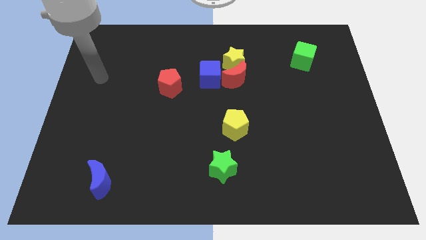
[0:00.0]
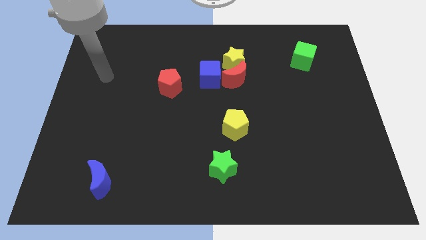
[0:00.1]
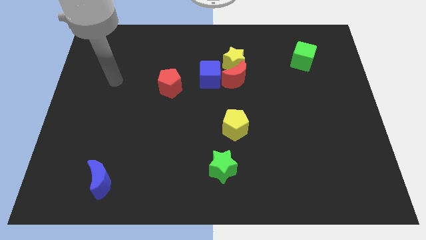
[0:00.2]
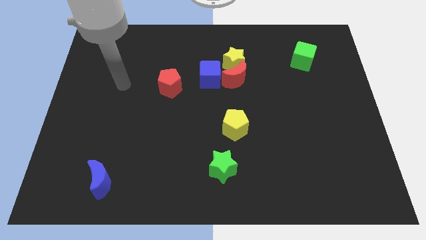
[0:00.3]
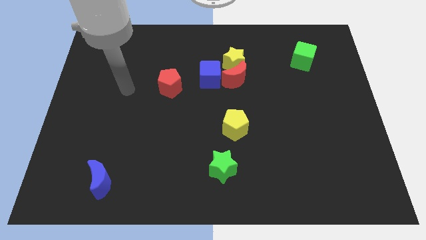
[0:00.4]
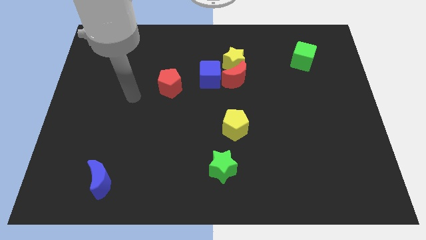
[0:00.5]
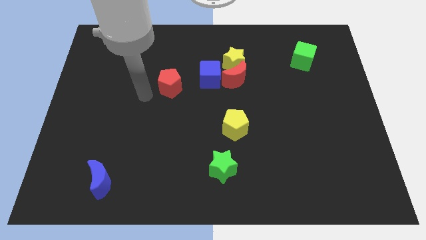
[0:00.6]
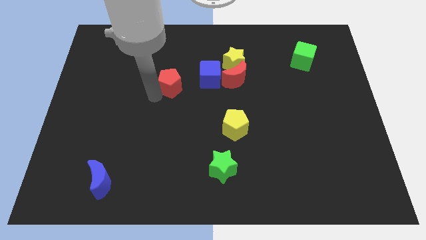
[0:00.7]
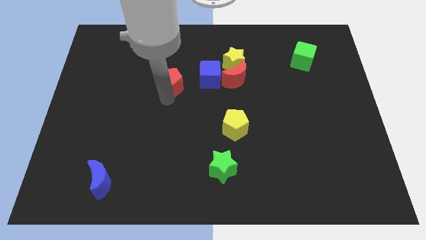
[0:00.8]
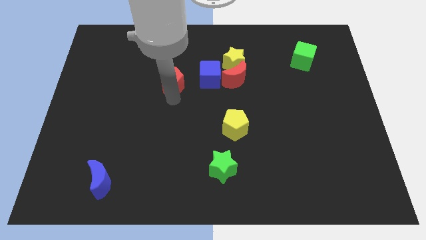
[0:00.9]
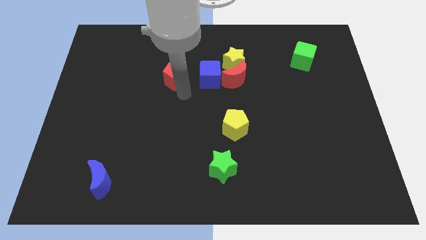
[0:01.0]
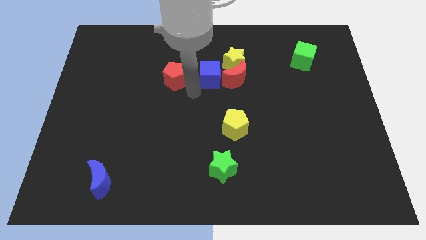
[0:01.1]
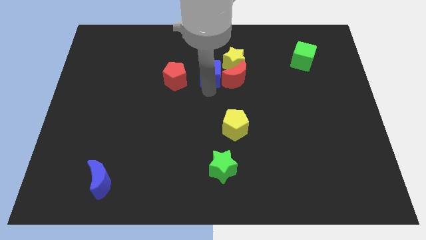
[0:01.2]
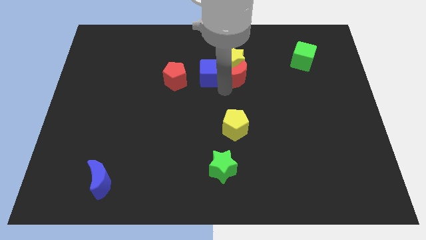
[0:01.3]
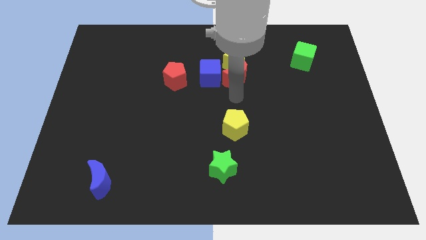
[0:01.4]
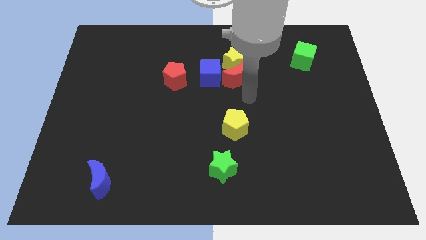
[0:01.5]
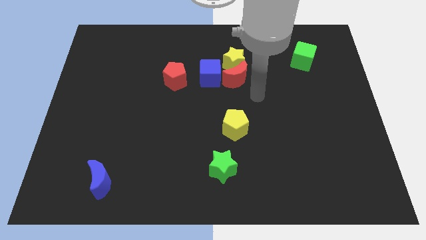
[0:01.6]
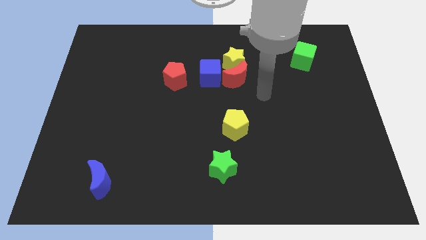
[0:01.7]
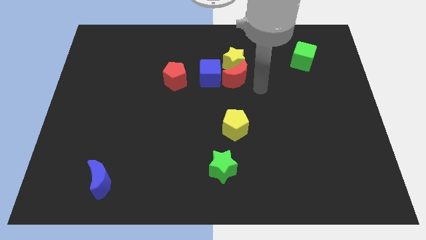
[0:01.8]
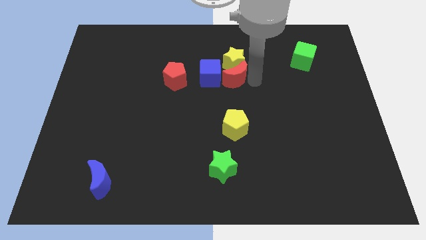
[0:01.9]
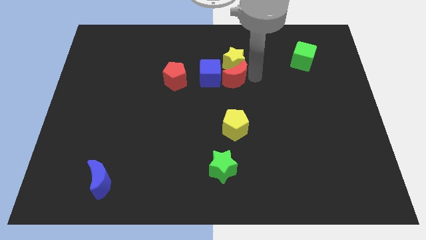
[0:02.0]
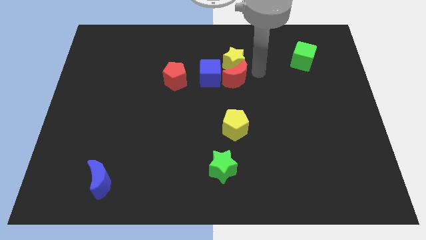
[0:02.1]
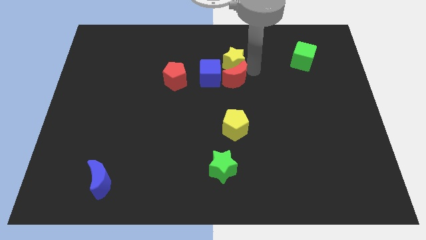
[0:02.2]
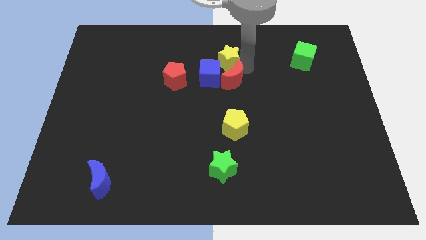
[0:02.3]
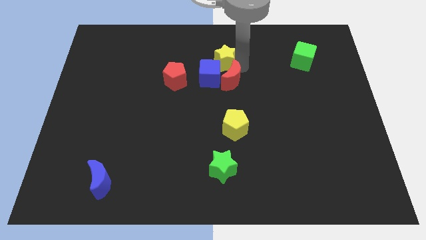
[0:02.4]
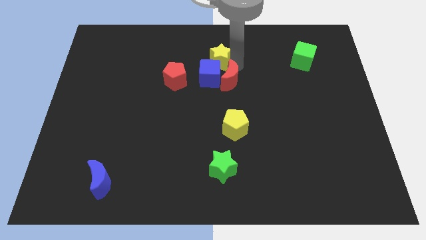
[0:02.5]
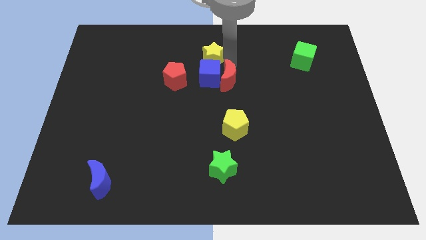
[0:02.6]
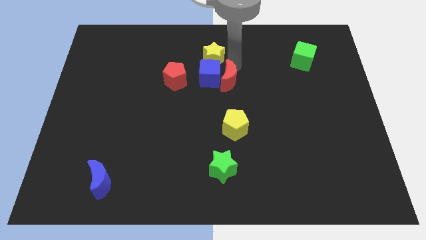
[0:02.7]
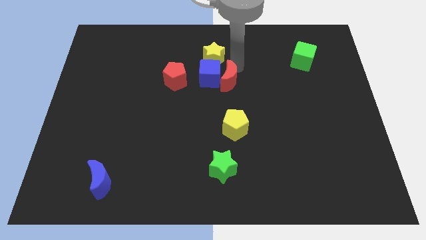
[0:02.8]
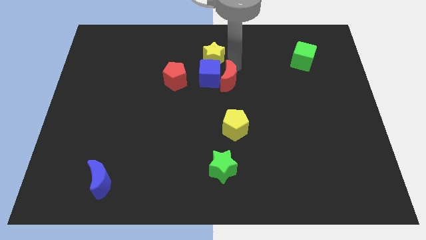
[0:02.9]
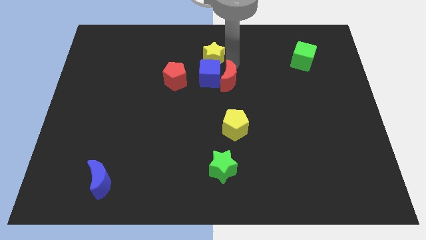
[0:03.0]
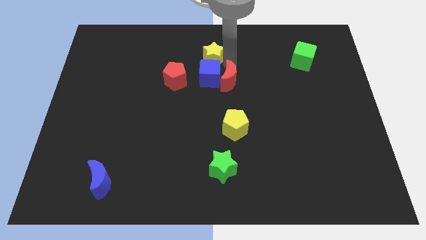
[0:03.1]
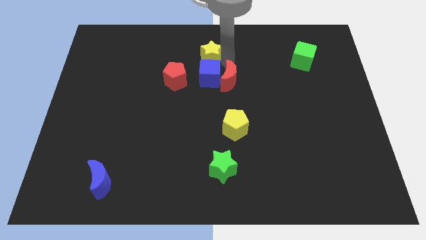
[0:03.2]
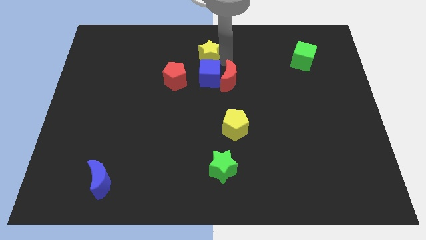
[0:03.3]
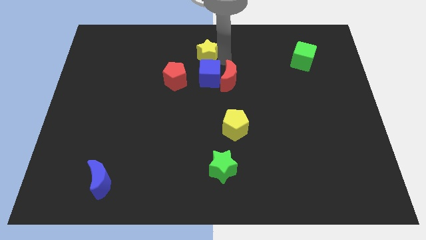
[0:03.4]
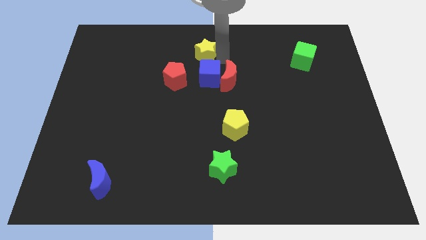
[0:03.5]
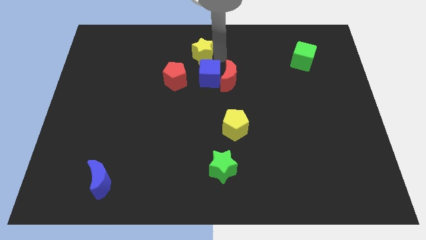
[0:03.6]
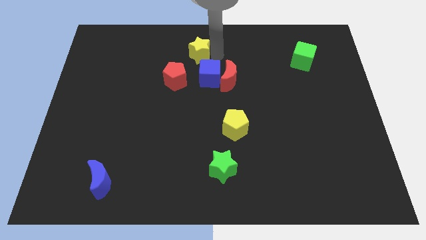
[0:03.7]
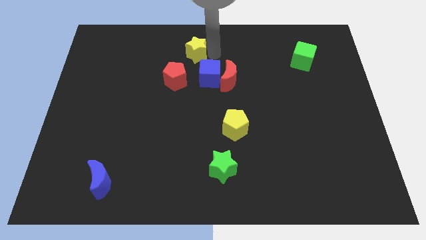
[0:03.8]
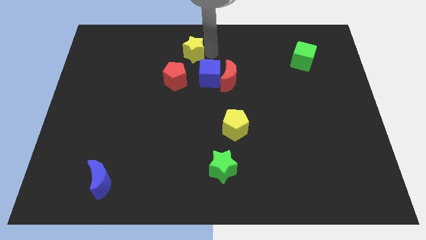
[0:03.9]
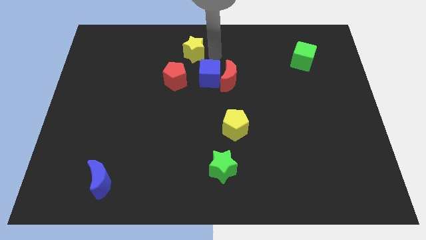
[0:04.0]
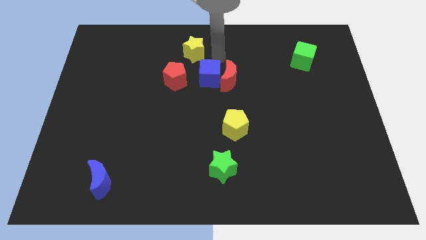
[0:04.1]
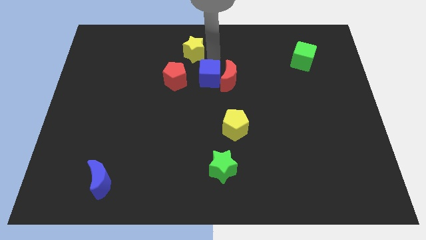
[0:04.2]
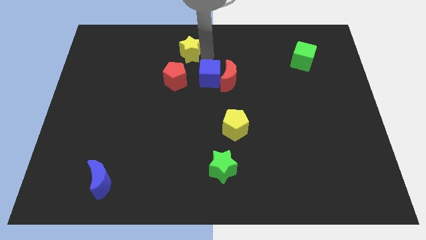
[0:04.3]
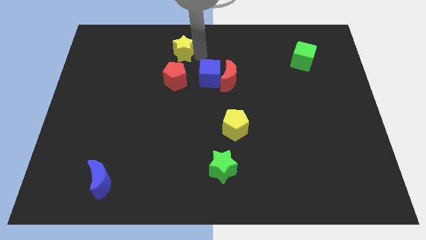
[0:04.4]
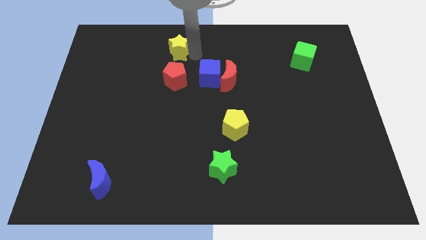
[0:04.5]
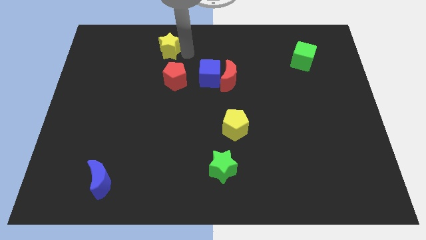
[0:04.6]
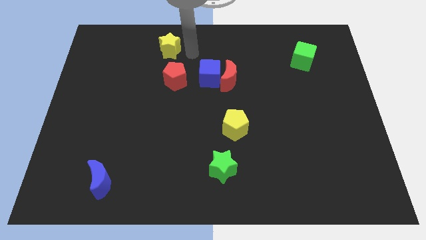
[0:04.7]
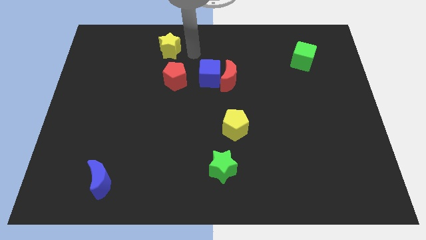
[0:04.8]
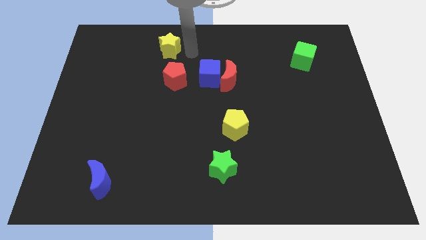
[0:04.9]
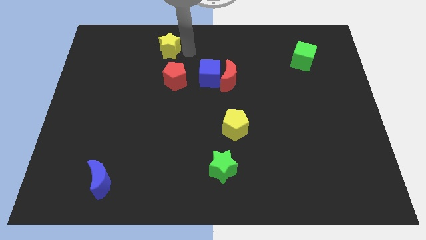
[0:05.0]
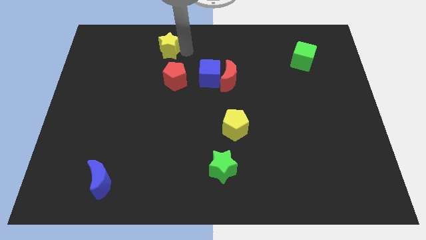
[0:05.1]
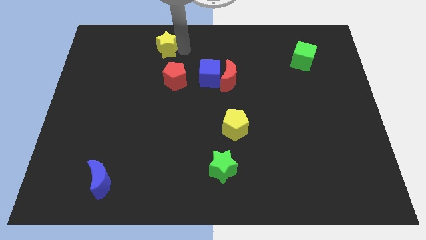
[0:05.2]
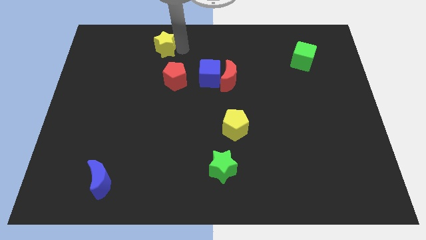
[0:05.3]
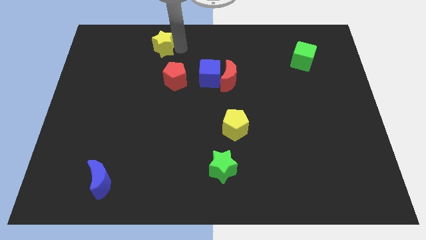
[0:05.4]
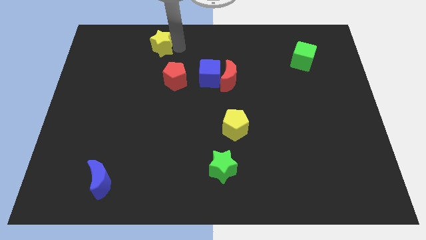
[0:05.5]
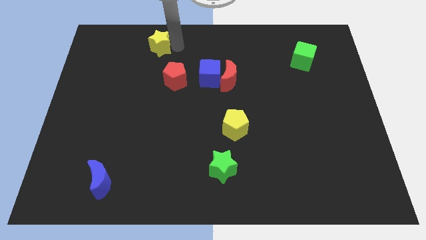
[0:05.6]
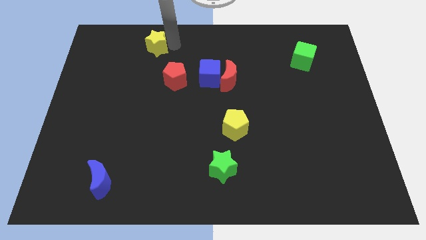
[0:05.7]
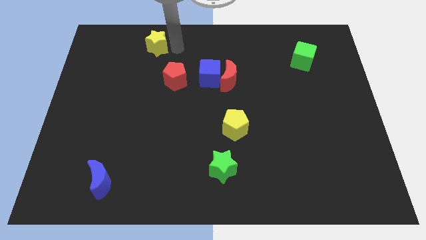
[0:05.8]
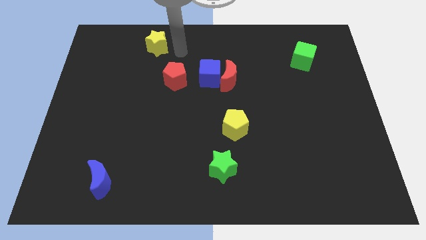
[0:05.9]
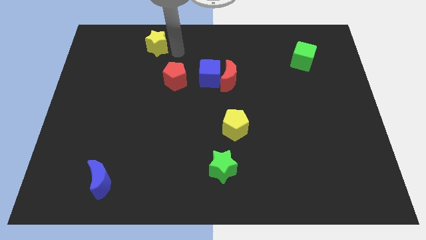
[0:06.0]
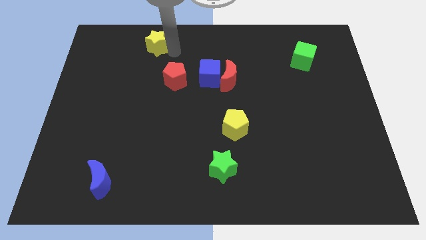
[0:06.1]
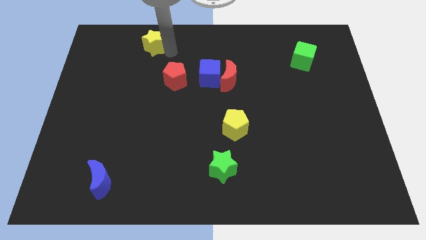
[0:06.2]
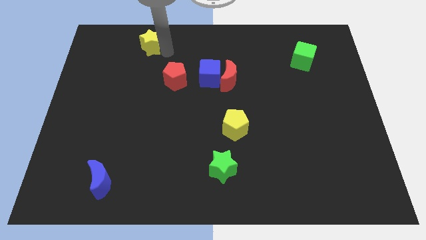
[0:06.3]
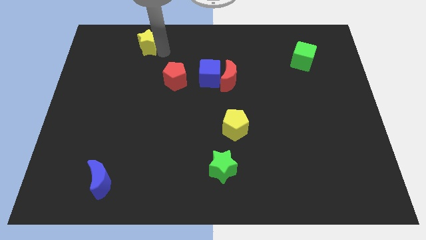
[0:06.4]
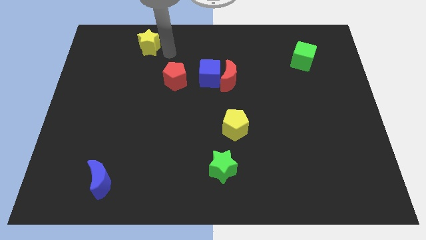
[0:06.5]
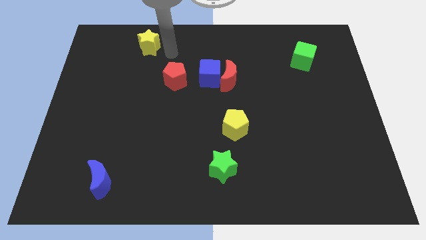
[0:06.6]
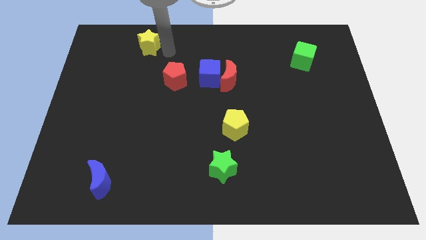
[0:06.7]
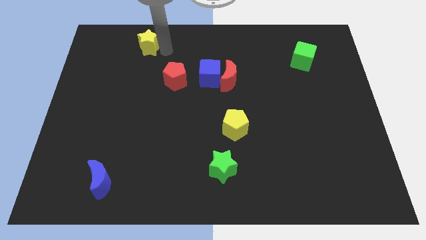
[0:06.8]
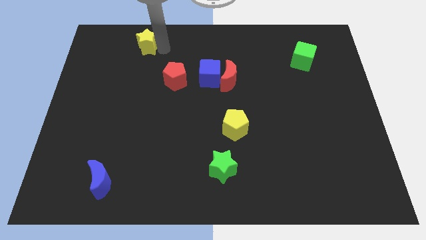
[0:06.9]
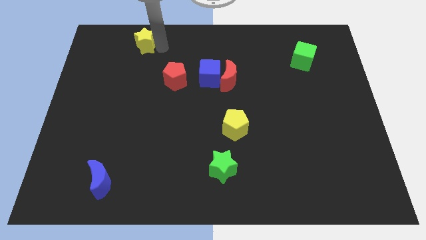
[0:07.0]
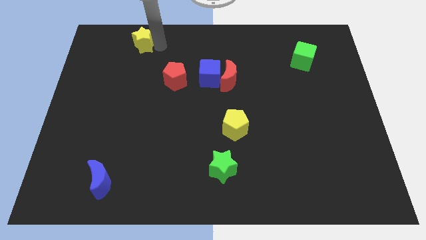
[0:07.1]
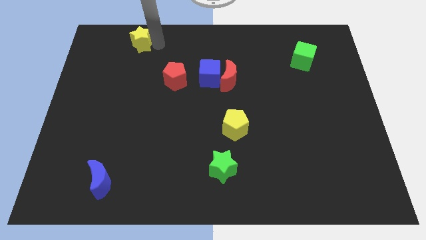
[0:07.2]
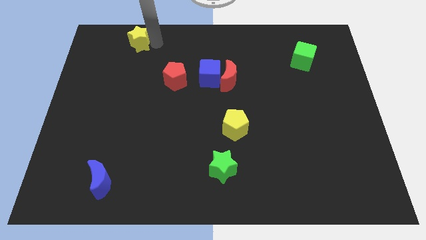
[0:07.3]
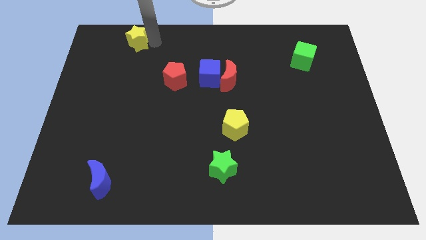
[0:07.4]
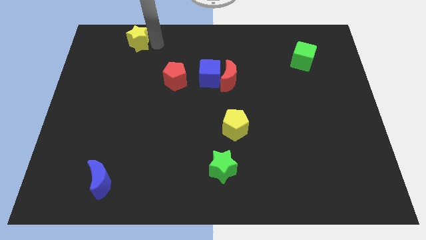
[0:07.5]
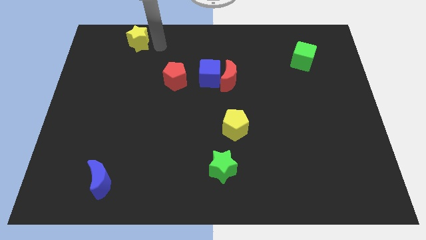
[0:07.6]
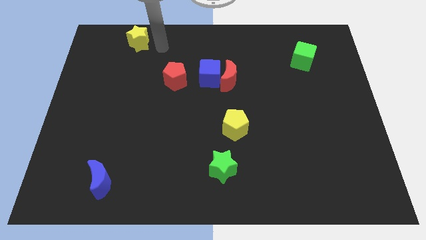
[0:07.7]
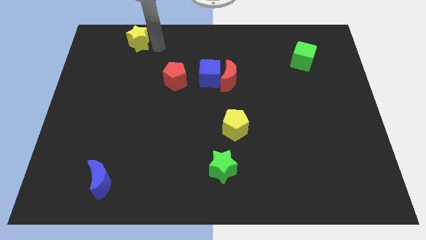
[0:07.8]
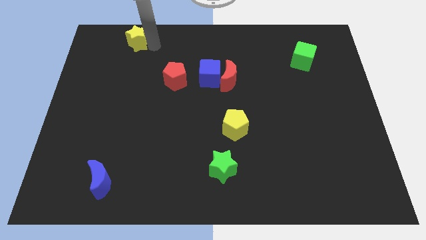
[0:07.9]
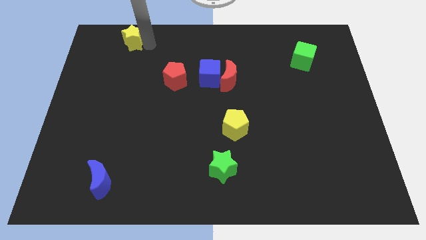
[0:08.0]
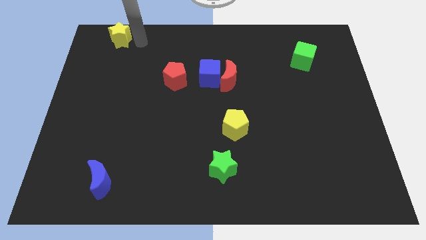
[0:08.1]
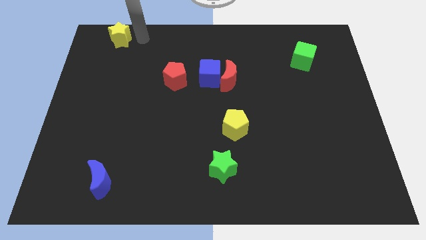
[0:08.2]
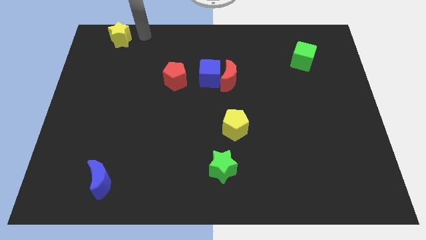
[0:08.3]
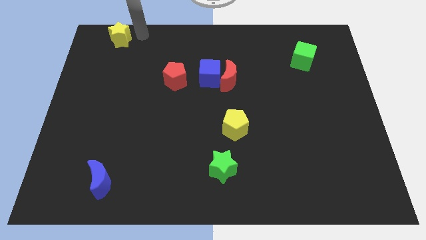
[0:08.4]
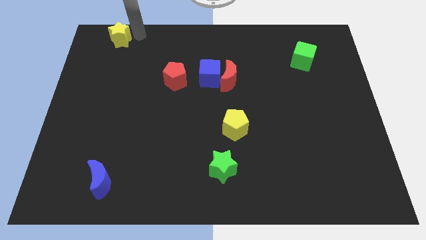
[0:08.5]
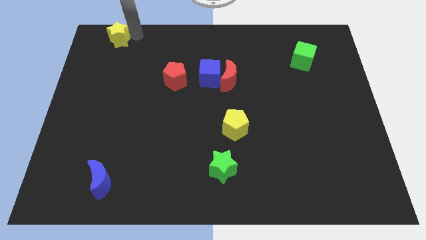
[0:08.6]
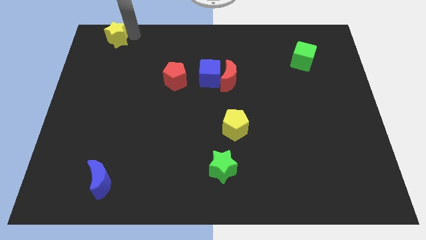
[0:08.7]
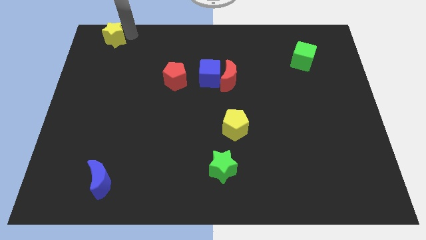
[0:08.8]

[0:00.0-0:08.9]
slide the yellow star to the upper left corner
